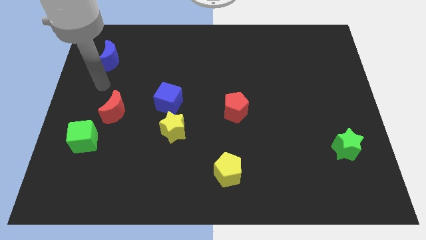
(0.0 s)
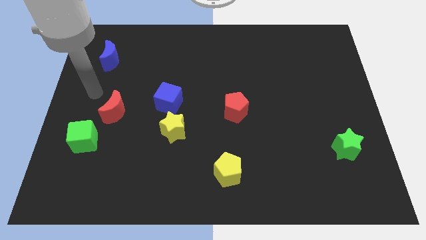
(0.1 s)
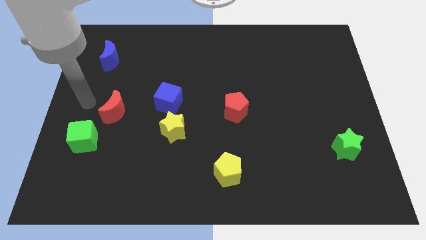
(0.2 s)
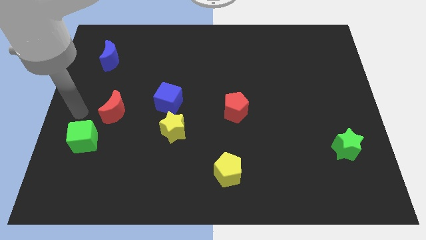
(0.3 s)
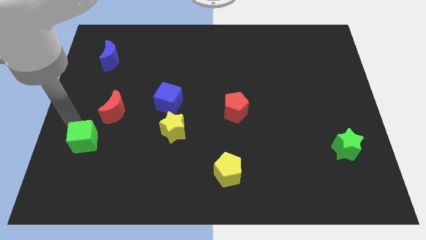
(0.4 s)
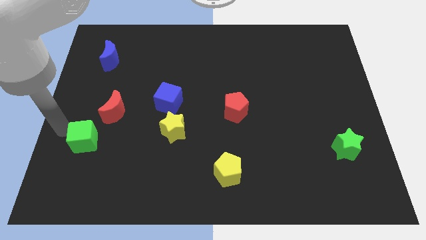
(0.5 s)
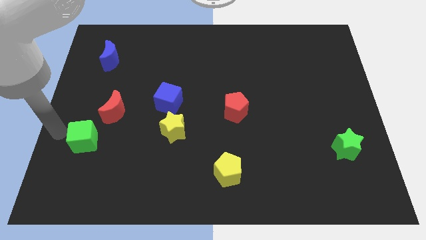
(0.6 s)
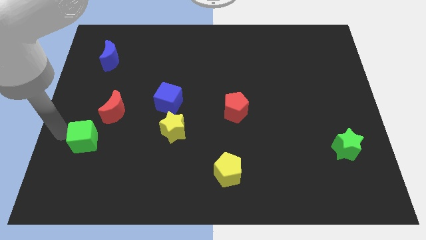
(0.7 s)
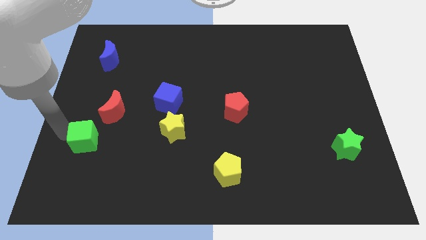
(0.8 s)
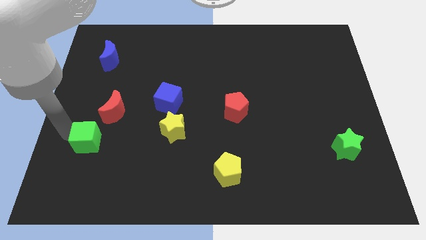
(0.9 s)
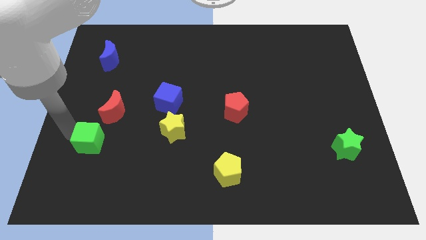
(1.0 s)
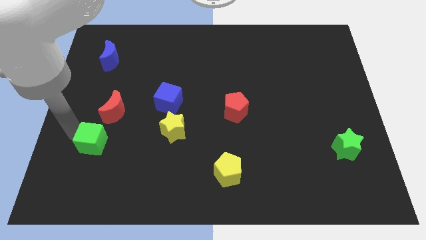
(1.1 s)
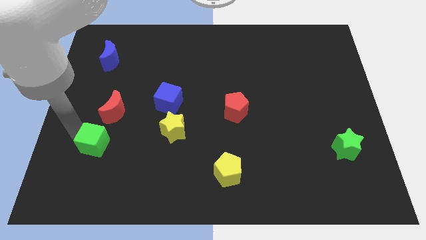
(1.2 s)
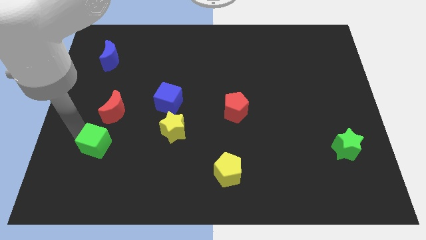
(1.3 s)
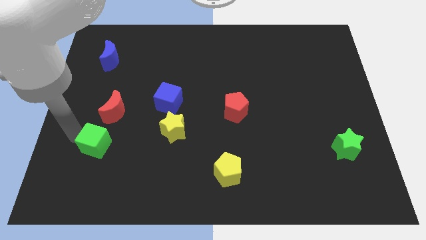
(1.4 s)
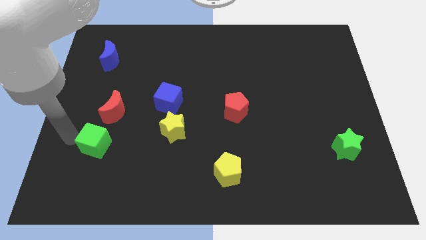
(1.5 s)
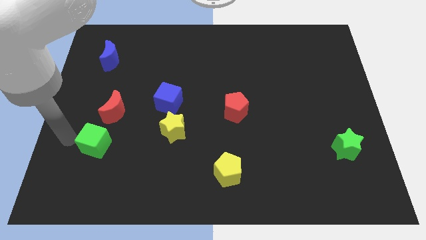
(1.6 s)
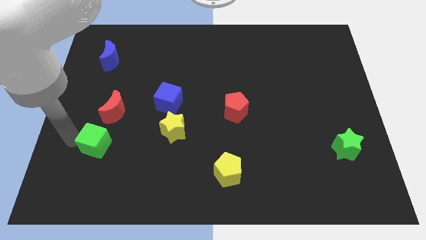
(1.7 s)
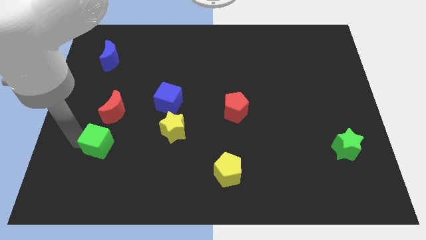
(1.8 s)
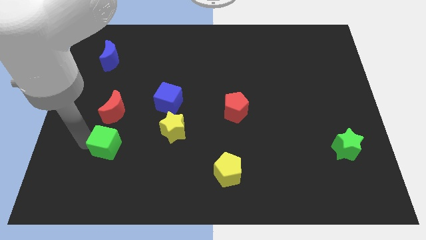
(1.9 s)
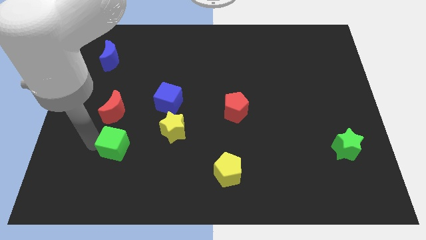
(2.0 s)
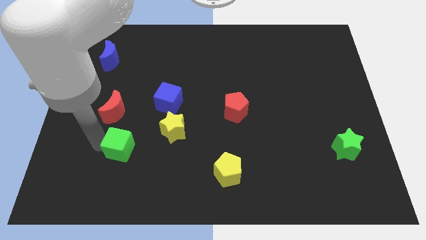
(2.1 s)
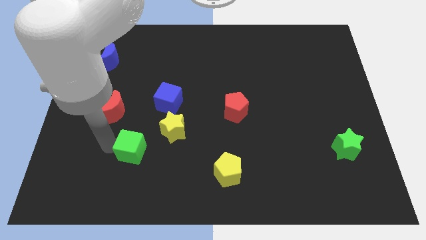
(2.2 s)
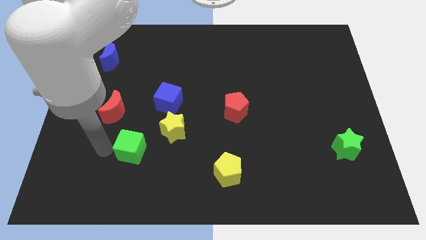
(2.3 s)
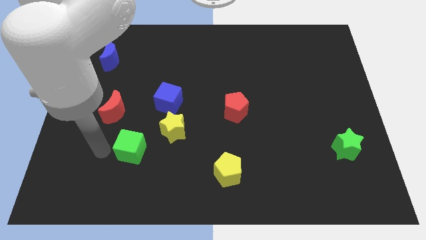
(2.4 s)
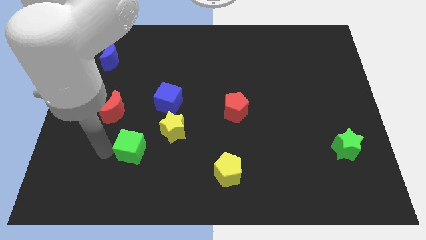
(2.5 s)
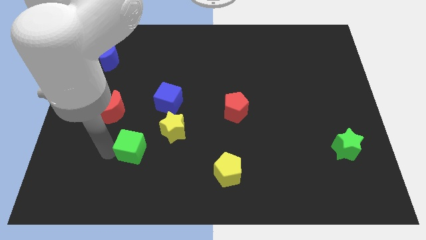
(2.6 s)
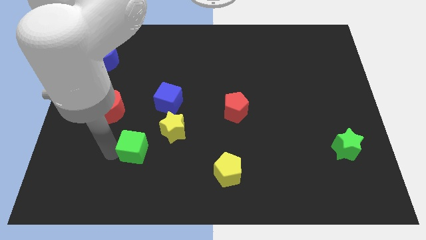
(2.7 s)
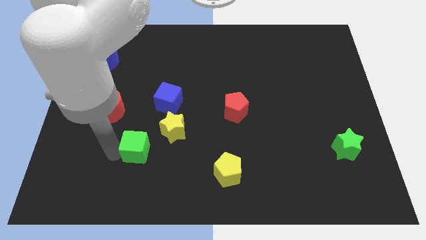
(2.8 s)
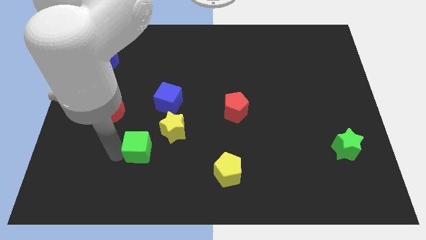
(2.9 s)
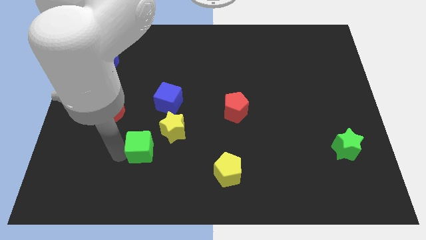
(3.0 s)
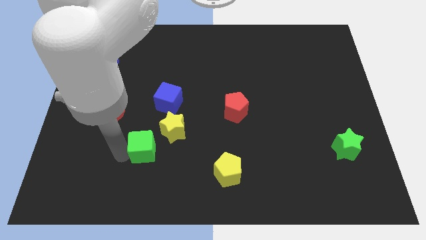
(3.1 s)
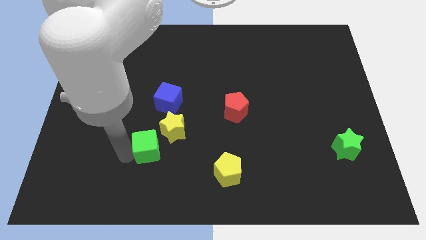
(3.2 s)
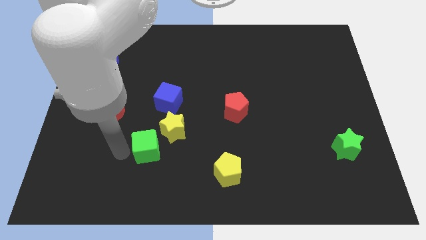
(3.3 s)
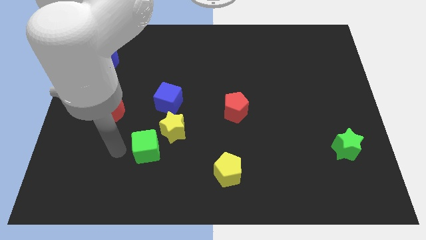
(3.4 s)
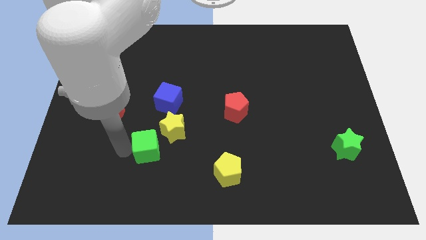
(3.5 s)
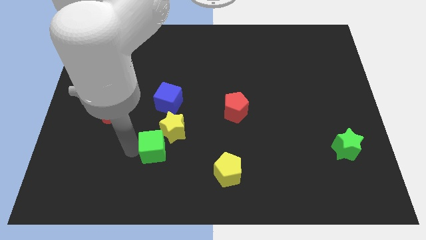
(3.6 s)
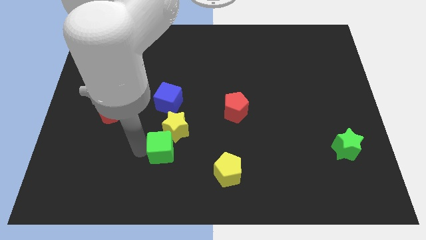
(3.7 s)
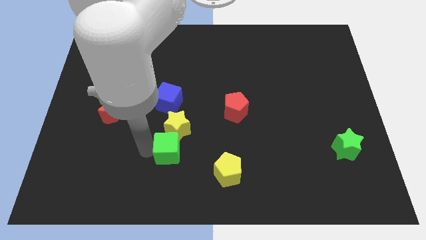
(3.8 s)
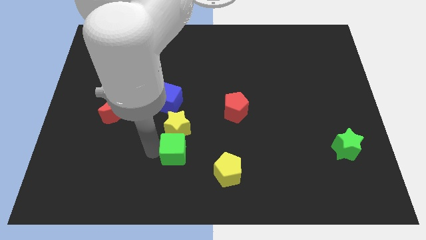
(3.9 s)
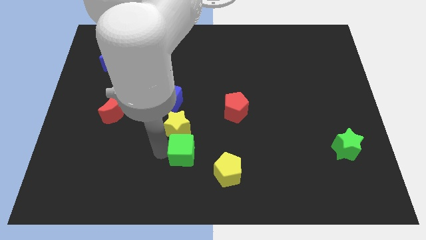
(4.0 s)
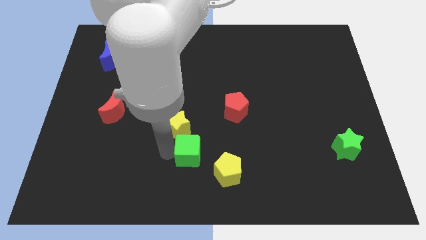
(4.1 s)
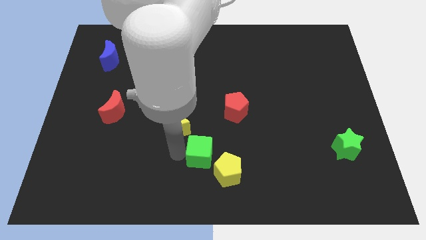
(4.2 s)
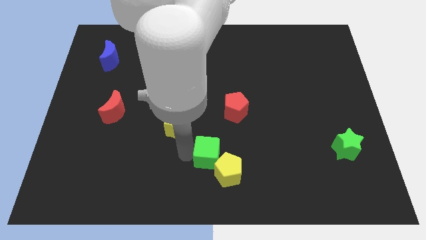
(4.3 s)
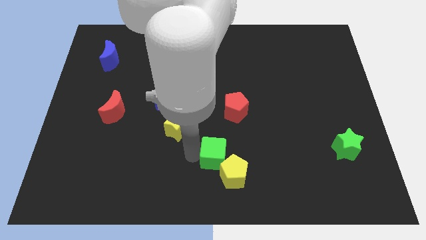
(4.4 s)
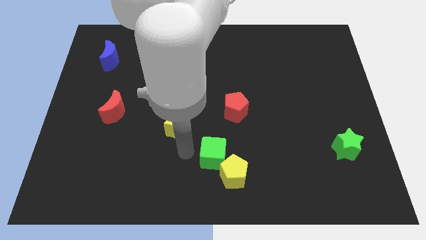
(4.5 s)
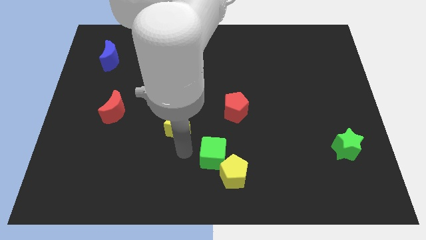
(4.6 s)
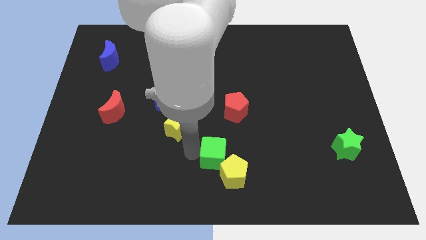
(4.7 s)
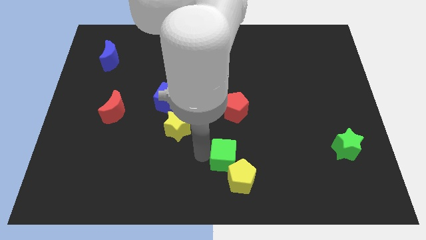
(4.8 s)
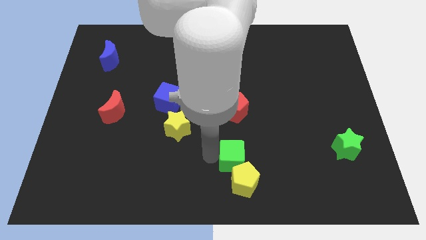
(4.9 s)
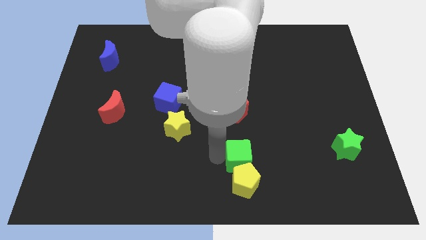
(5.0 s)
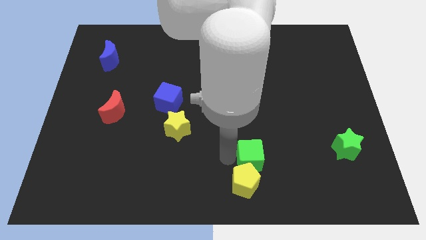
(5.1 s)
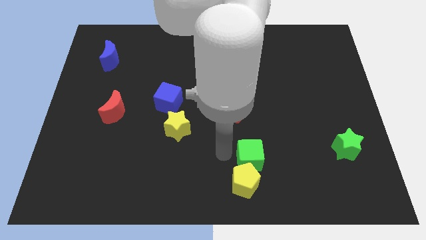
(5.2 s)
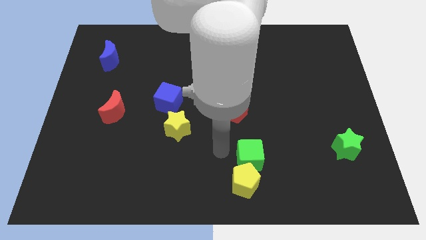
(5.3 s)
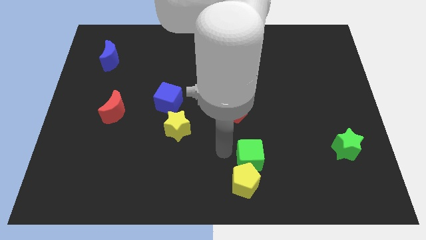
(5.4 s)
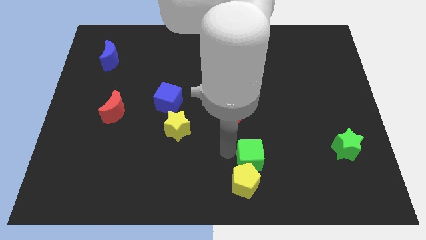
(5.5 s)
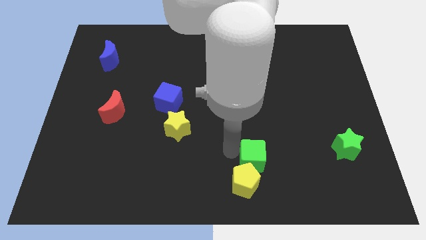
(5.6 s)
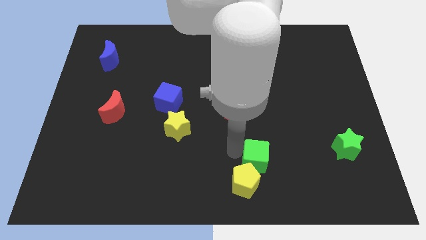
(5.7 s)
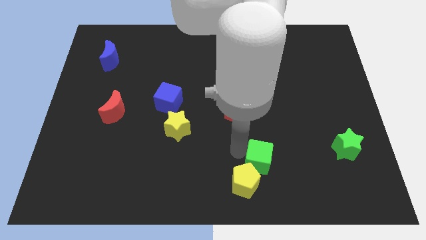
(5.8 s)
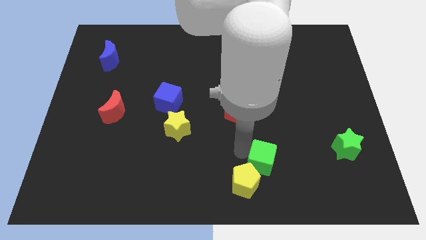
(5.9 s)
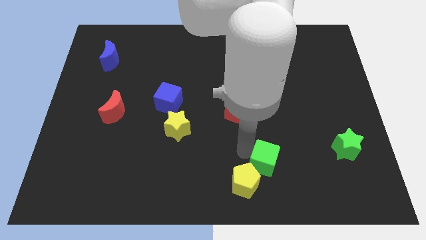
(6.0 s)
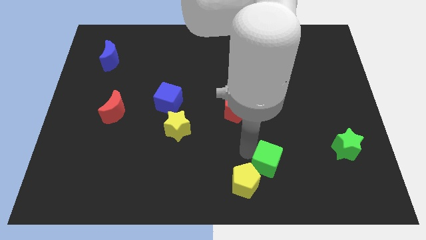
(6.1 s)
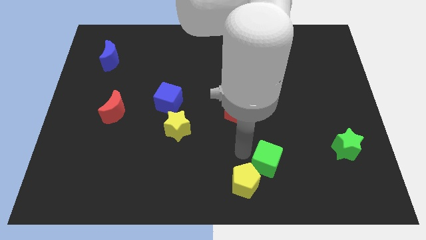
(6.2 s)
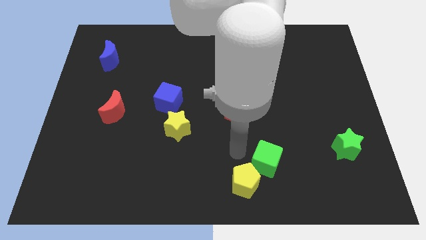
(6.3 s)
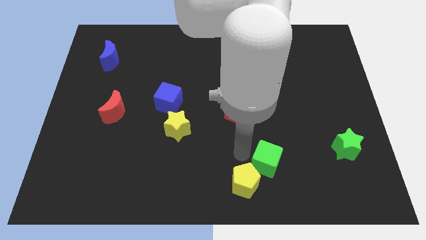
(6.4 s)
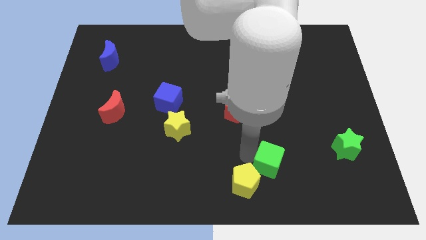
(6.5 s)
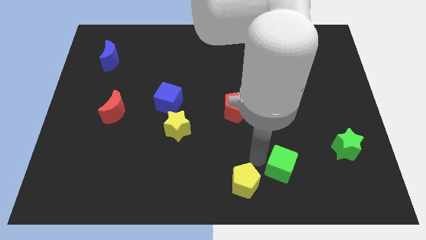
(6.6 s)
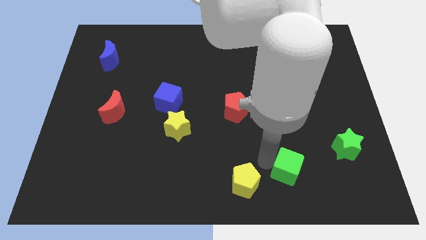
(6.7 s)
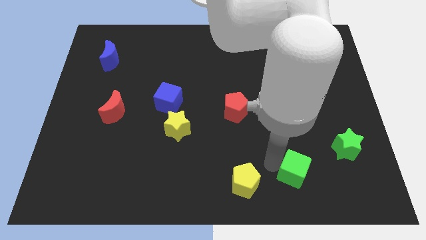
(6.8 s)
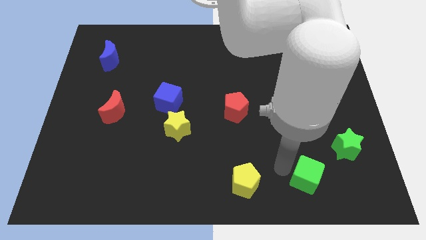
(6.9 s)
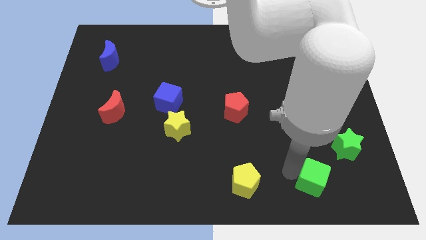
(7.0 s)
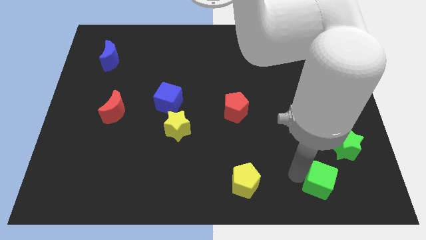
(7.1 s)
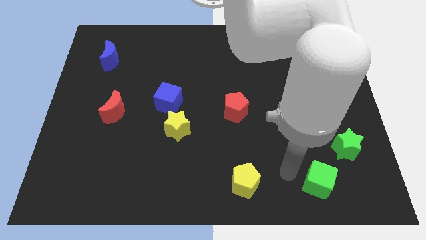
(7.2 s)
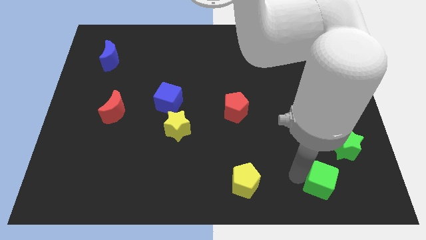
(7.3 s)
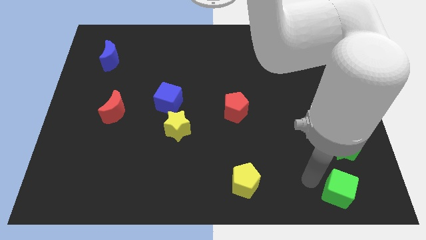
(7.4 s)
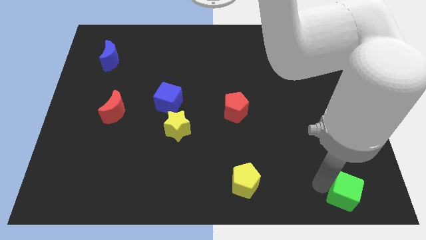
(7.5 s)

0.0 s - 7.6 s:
put the green cube to the bottom right corner
